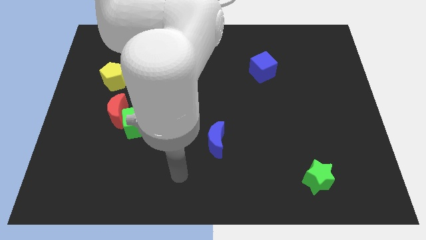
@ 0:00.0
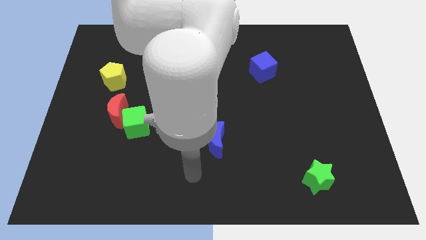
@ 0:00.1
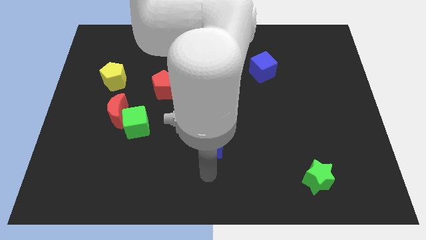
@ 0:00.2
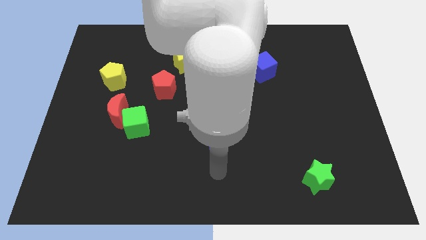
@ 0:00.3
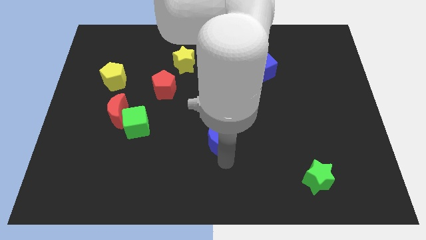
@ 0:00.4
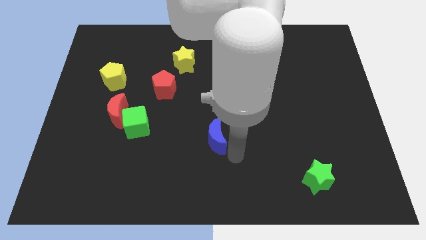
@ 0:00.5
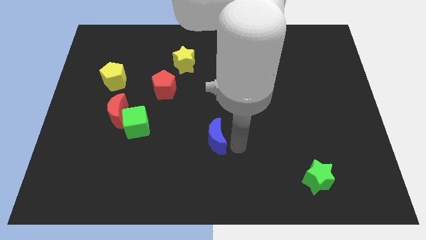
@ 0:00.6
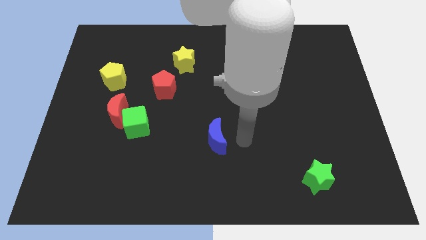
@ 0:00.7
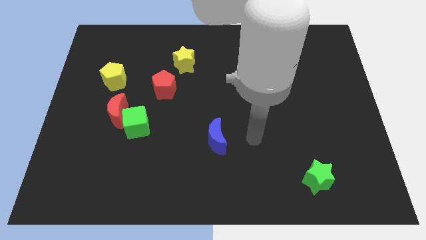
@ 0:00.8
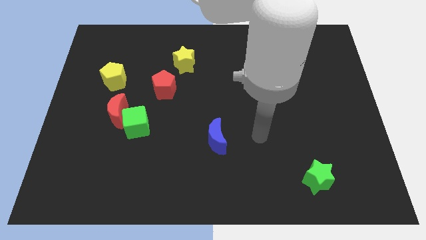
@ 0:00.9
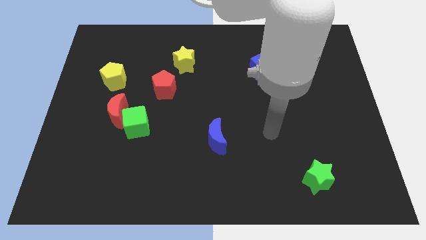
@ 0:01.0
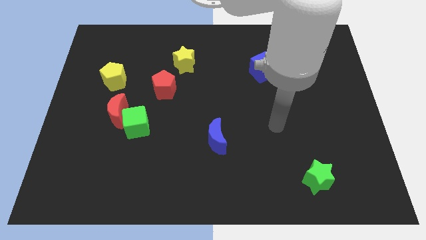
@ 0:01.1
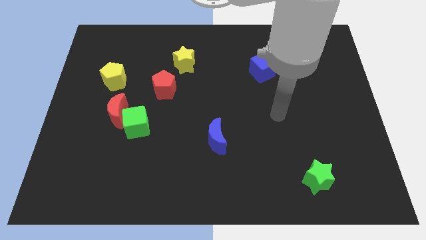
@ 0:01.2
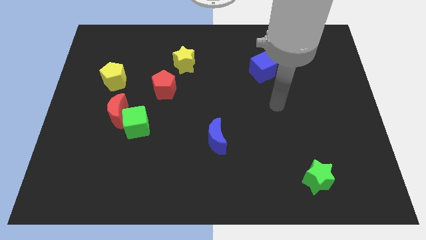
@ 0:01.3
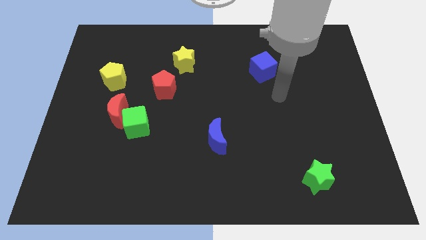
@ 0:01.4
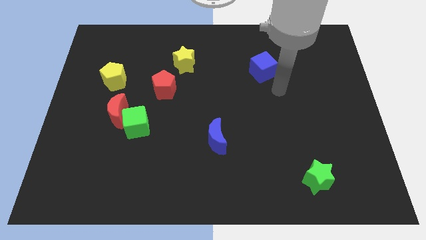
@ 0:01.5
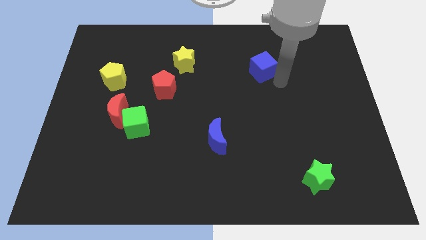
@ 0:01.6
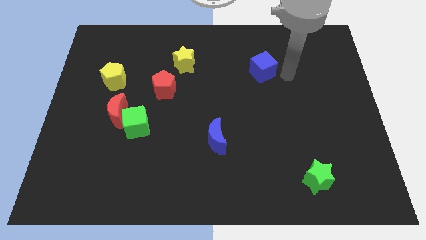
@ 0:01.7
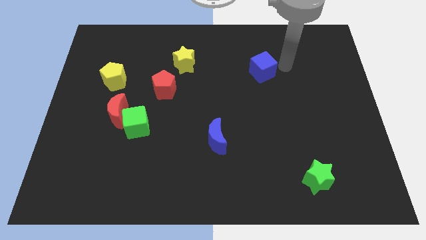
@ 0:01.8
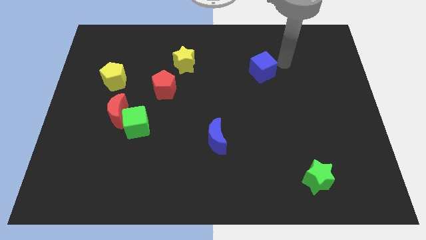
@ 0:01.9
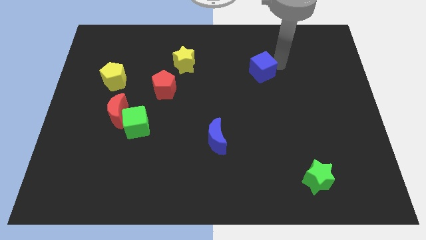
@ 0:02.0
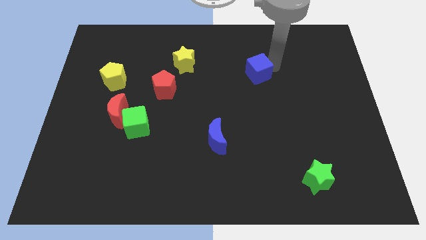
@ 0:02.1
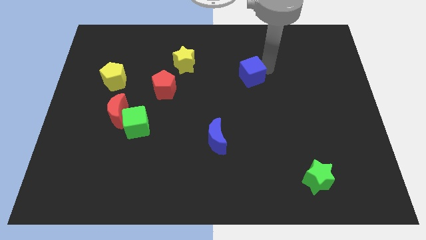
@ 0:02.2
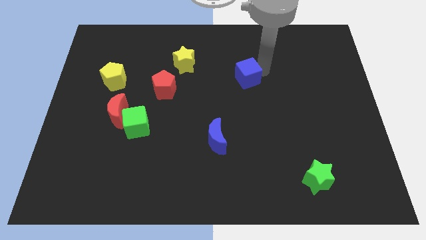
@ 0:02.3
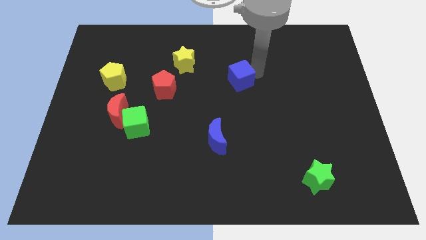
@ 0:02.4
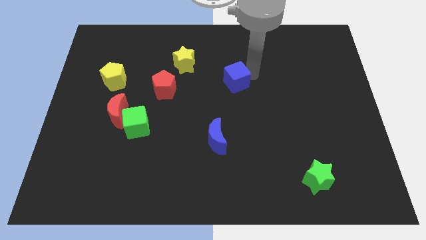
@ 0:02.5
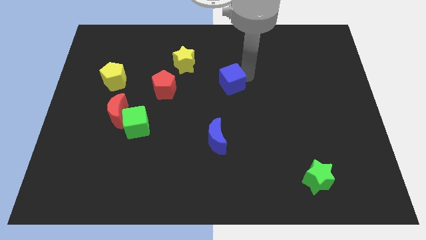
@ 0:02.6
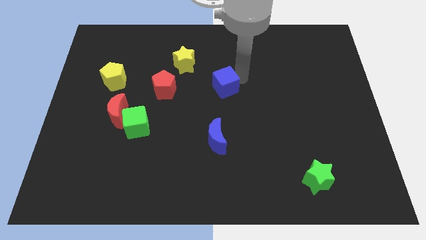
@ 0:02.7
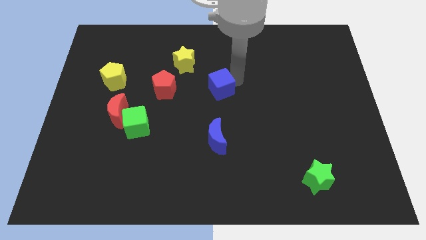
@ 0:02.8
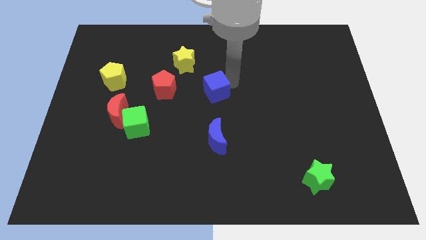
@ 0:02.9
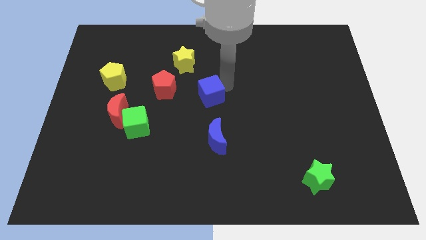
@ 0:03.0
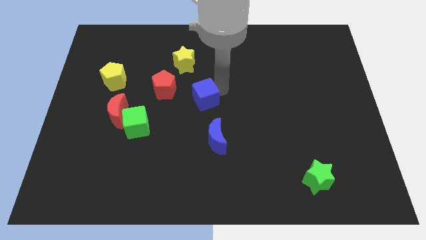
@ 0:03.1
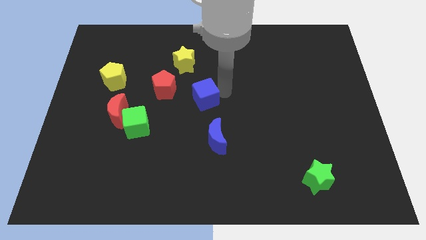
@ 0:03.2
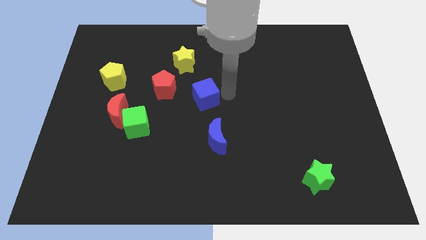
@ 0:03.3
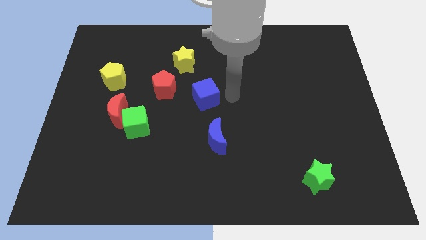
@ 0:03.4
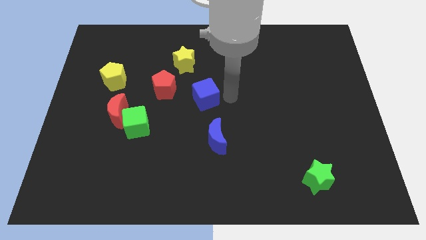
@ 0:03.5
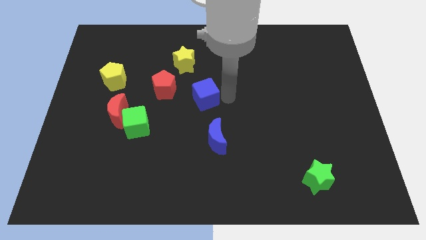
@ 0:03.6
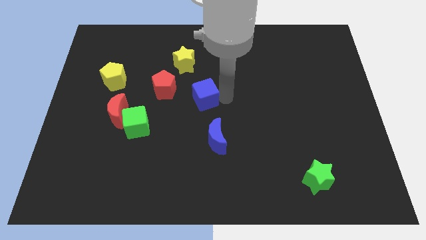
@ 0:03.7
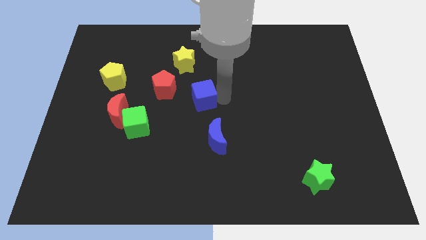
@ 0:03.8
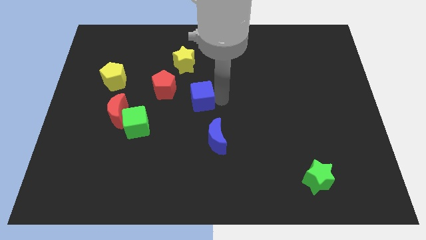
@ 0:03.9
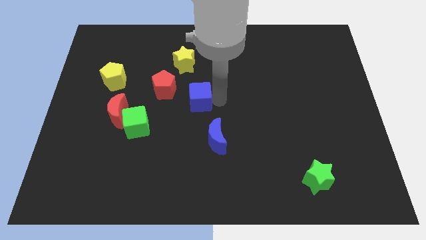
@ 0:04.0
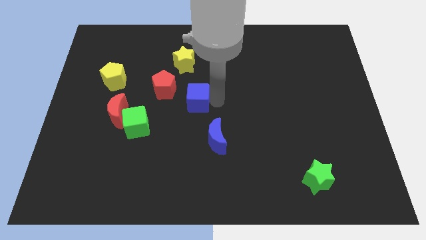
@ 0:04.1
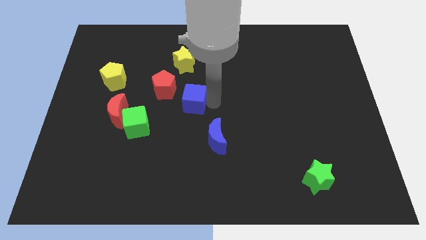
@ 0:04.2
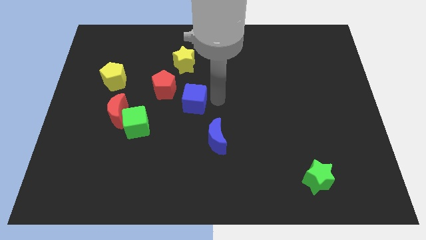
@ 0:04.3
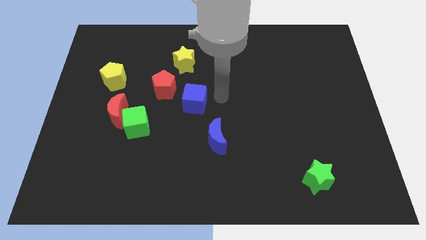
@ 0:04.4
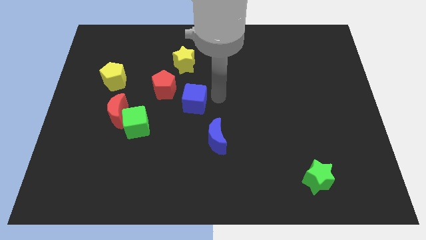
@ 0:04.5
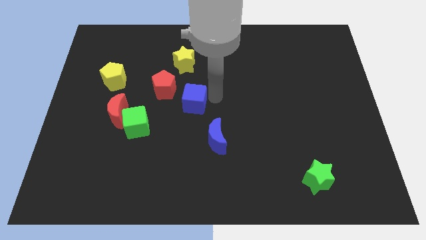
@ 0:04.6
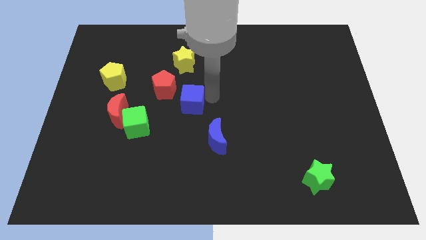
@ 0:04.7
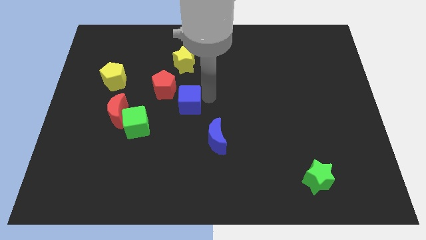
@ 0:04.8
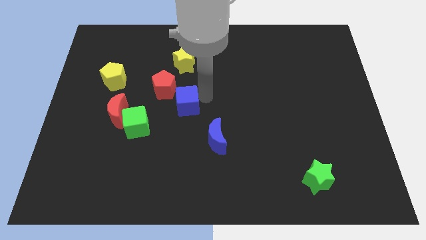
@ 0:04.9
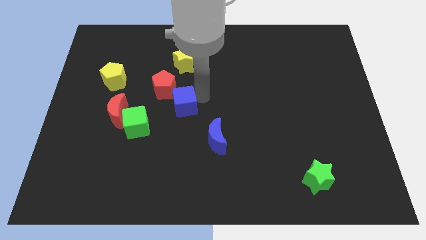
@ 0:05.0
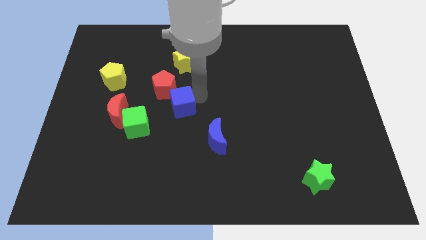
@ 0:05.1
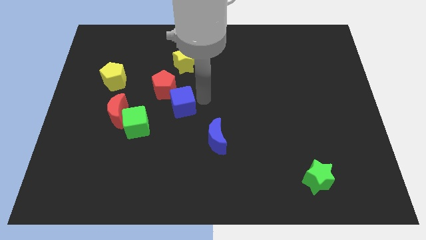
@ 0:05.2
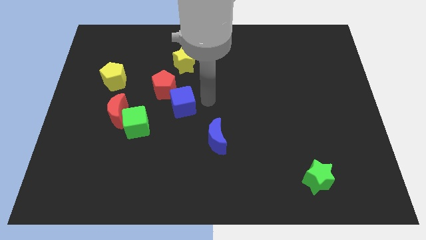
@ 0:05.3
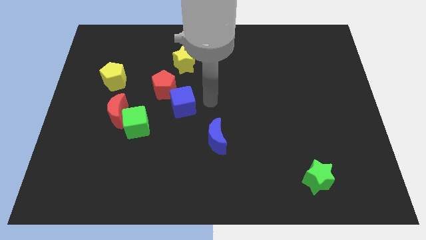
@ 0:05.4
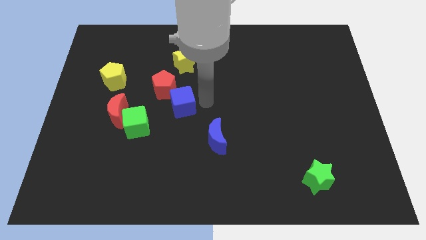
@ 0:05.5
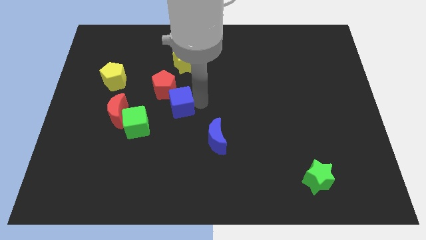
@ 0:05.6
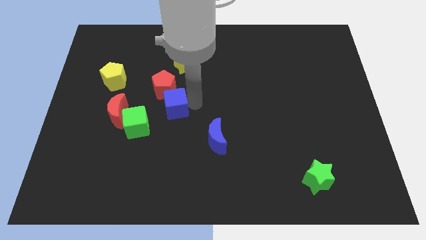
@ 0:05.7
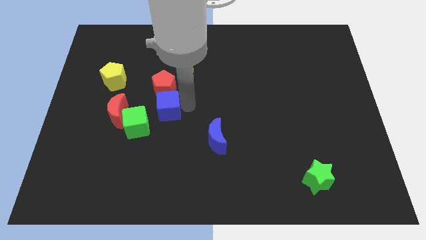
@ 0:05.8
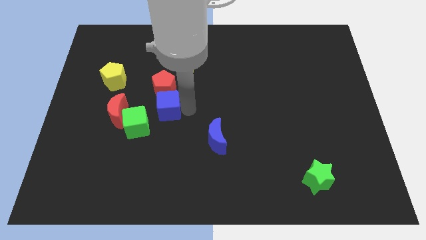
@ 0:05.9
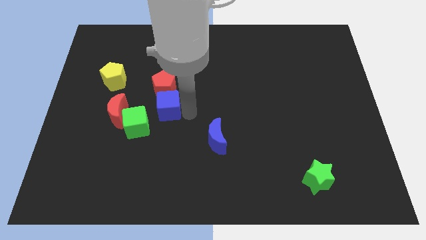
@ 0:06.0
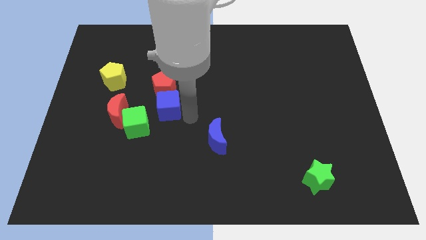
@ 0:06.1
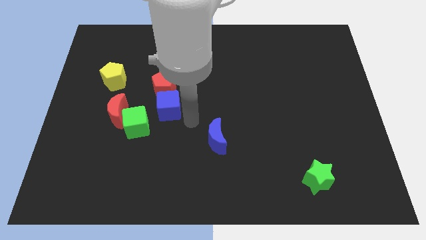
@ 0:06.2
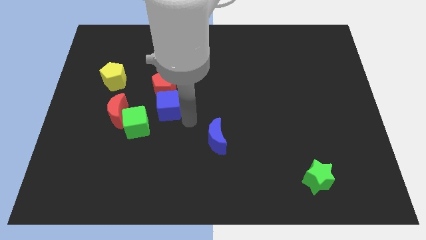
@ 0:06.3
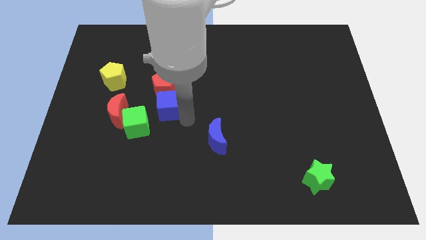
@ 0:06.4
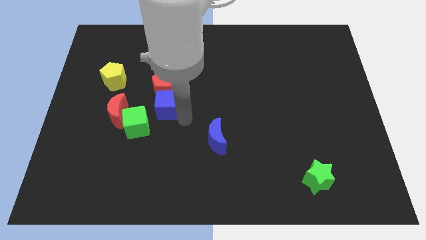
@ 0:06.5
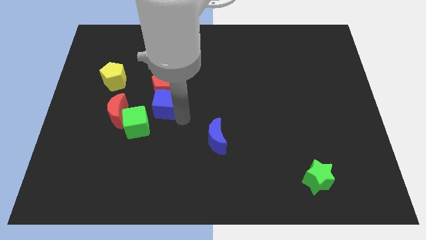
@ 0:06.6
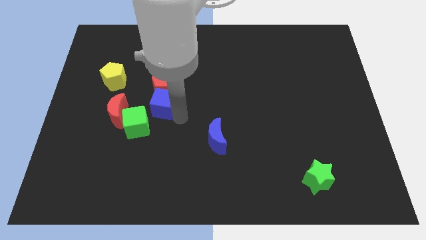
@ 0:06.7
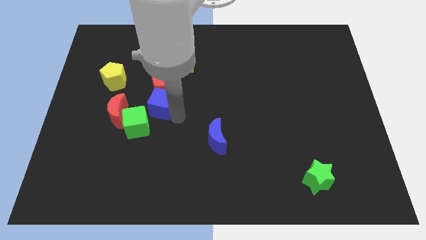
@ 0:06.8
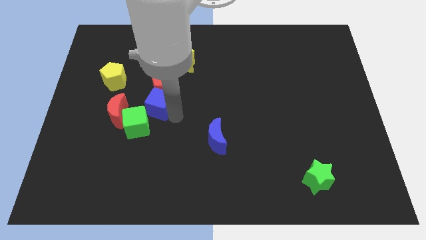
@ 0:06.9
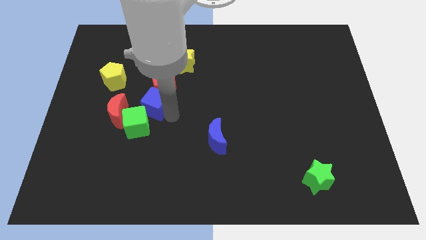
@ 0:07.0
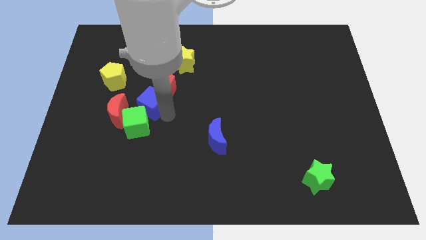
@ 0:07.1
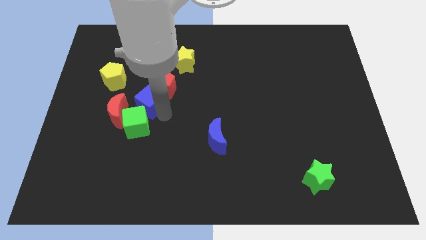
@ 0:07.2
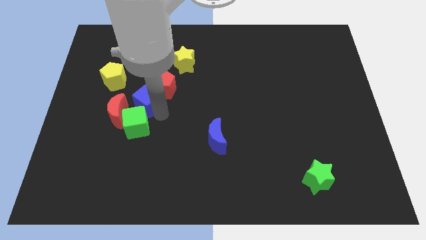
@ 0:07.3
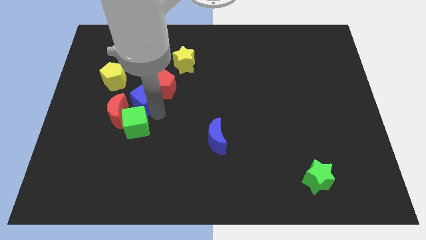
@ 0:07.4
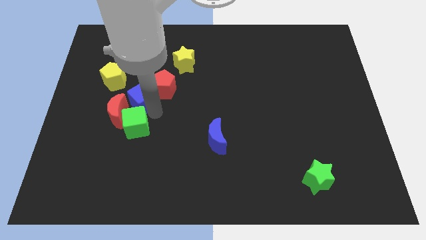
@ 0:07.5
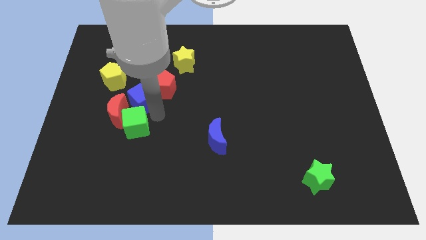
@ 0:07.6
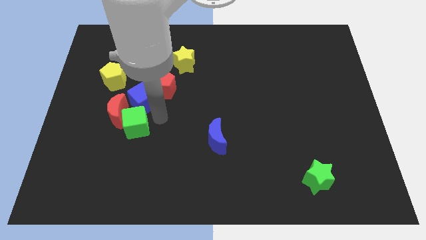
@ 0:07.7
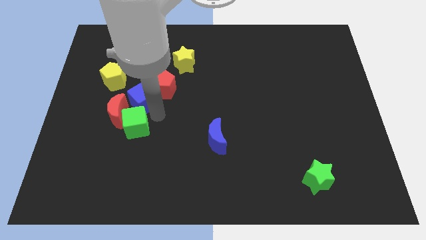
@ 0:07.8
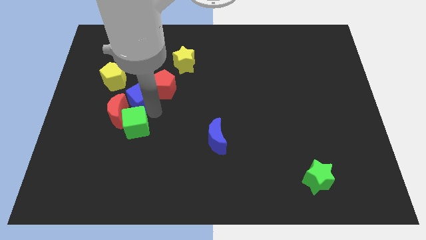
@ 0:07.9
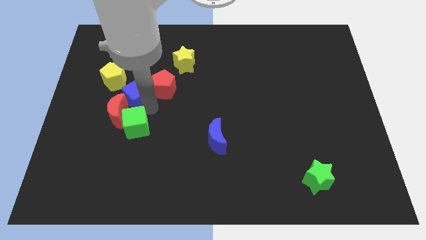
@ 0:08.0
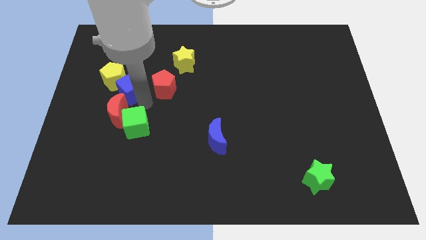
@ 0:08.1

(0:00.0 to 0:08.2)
push the blue cube to the yellow pentagon
